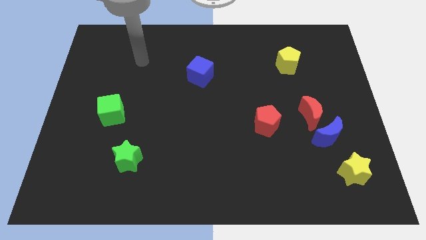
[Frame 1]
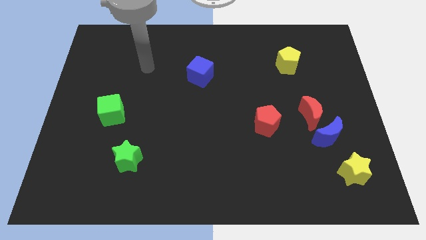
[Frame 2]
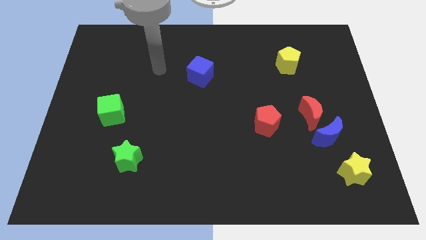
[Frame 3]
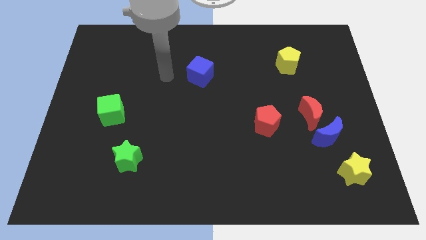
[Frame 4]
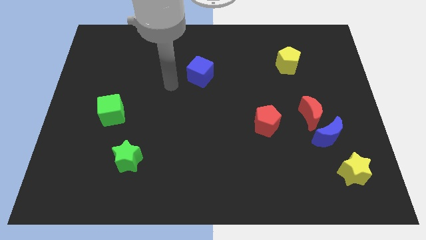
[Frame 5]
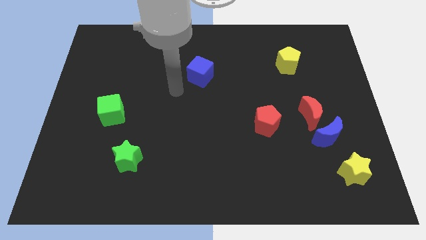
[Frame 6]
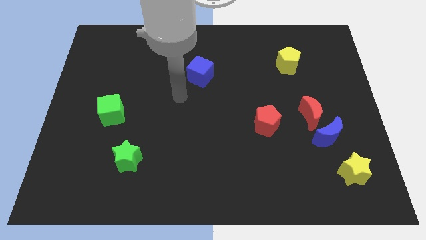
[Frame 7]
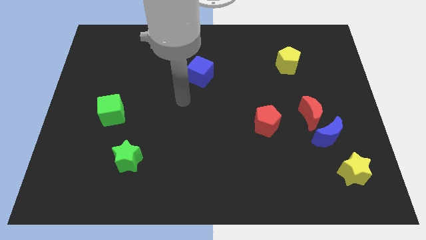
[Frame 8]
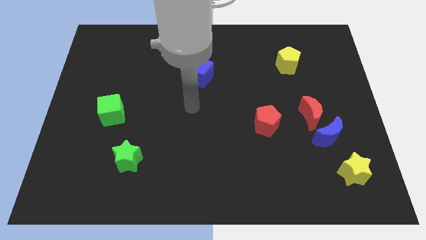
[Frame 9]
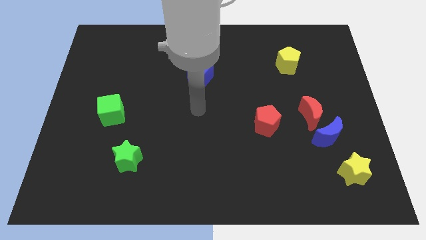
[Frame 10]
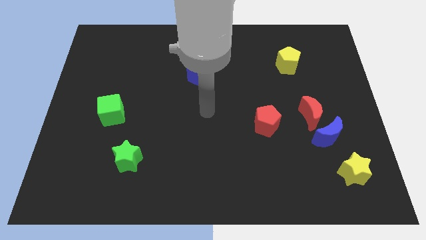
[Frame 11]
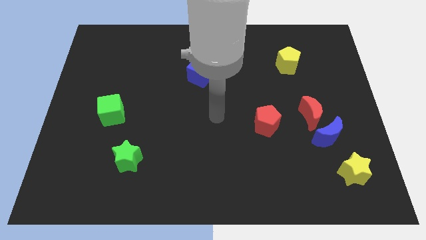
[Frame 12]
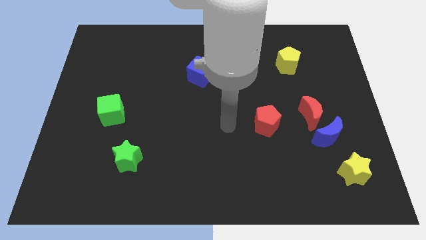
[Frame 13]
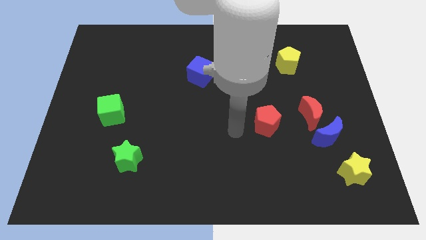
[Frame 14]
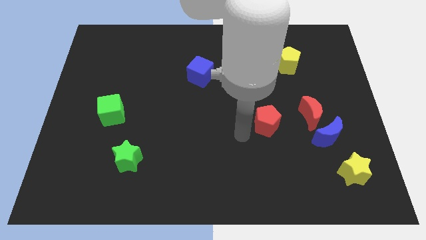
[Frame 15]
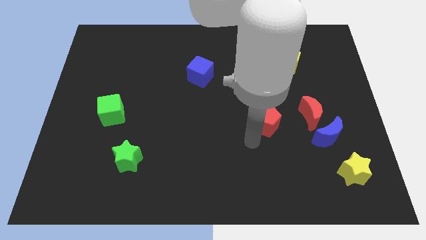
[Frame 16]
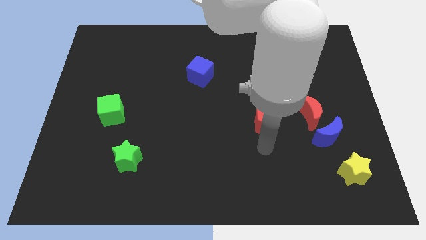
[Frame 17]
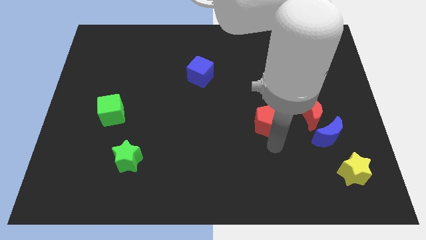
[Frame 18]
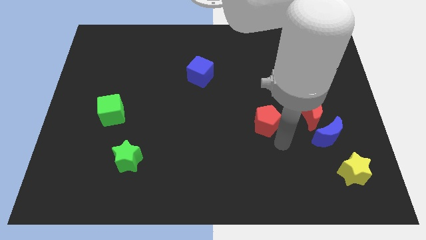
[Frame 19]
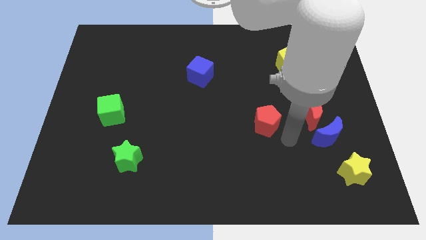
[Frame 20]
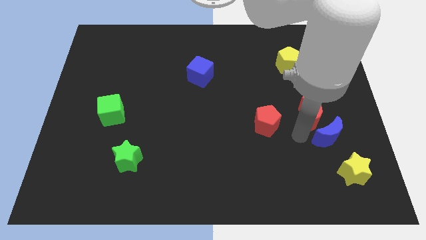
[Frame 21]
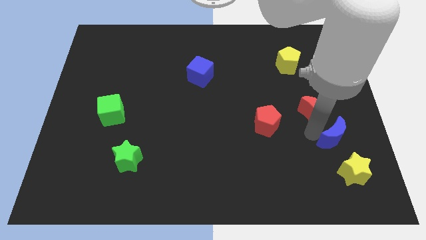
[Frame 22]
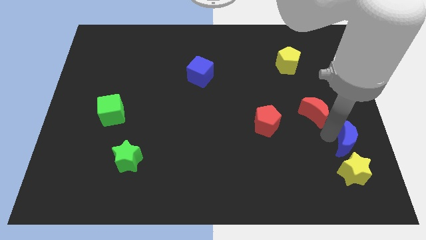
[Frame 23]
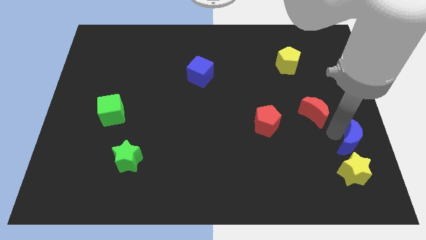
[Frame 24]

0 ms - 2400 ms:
separate the red moon from the blue moon

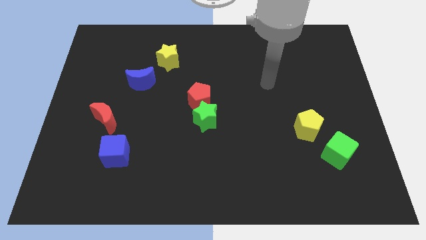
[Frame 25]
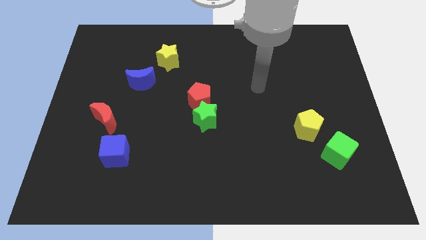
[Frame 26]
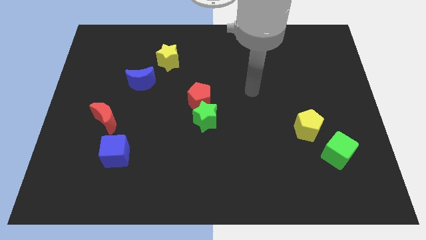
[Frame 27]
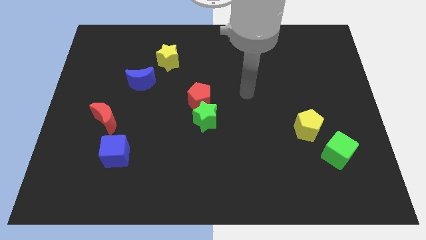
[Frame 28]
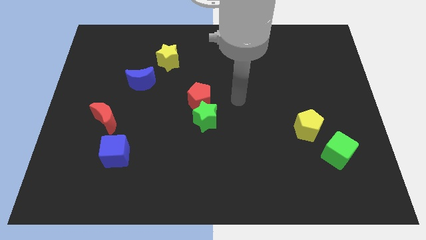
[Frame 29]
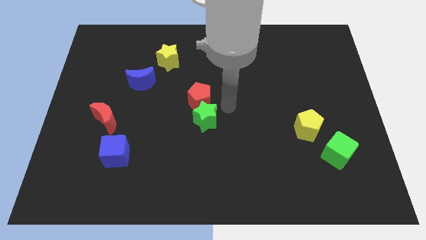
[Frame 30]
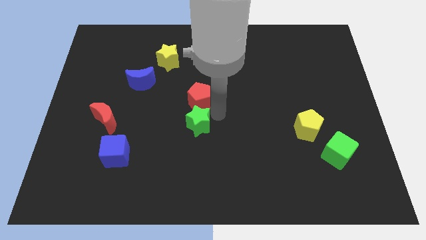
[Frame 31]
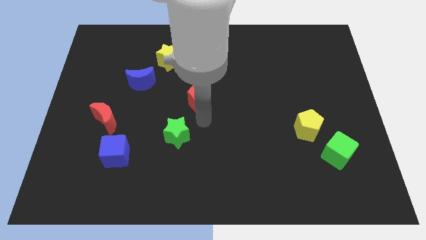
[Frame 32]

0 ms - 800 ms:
move the red pentagon away from the green star

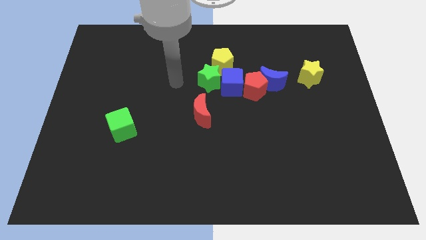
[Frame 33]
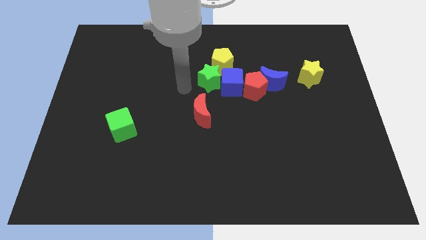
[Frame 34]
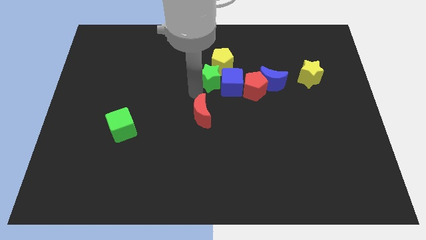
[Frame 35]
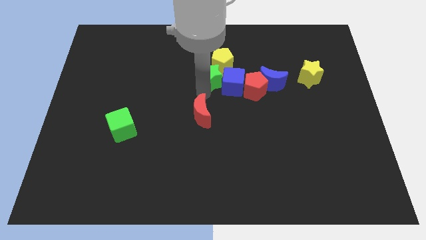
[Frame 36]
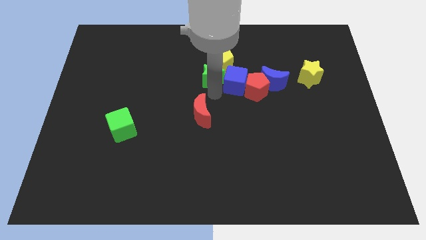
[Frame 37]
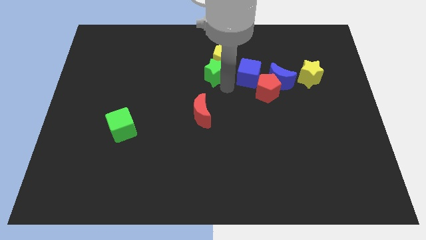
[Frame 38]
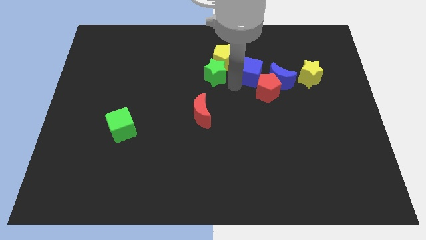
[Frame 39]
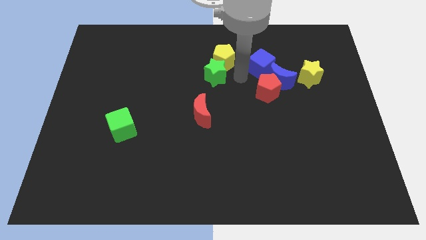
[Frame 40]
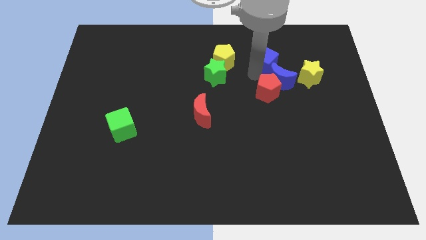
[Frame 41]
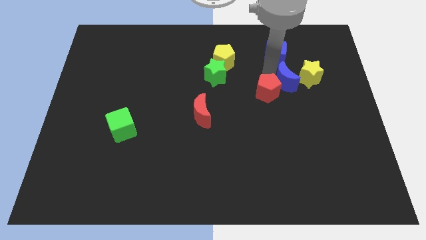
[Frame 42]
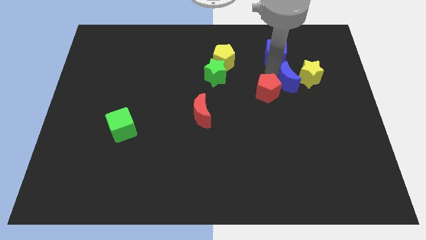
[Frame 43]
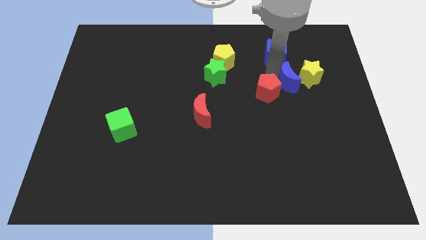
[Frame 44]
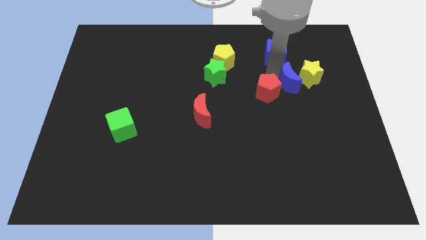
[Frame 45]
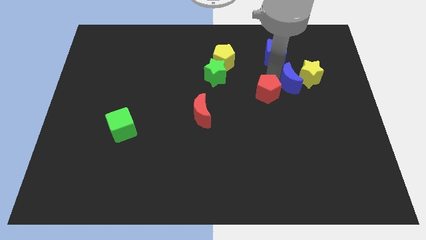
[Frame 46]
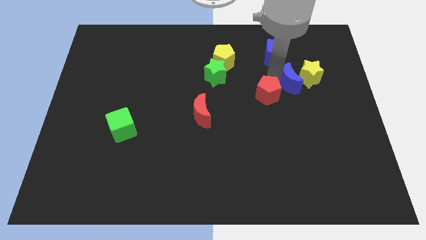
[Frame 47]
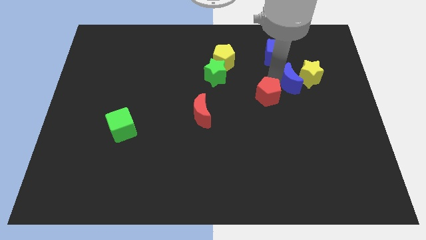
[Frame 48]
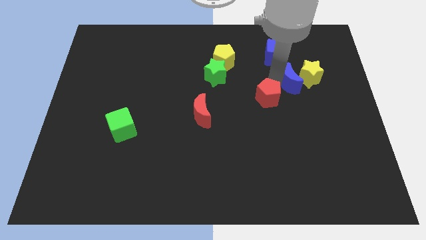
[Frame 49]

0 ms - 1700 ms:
pull the red pentagon apart from the blue moon and blue cube

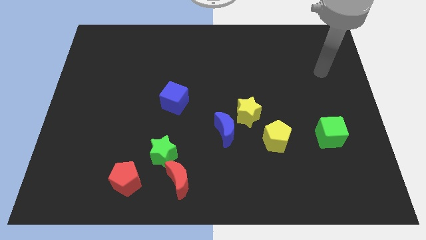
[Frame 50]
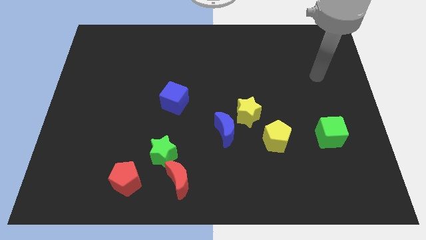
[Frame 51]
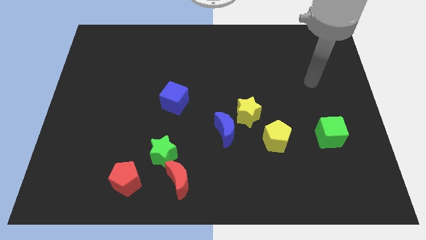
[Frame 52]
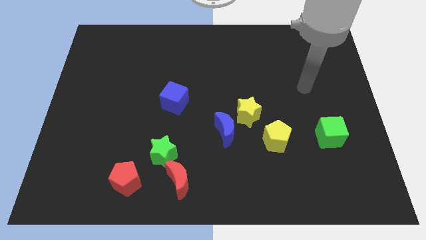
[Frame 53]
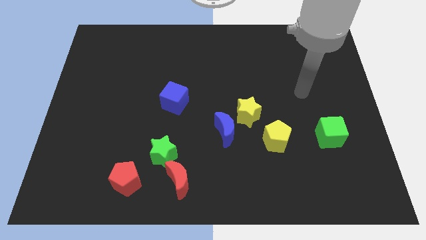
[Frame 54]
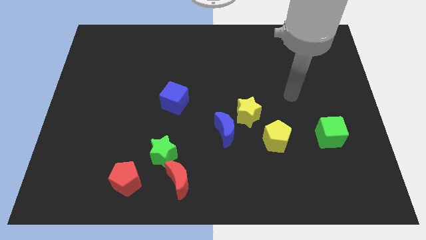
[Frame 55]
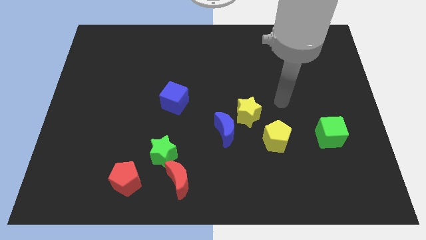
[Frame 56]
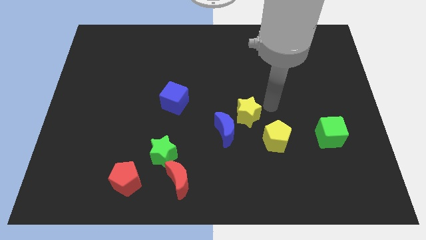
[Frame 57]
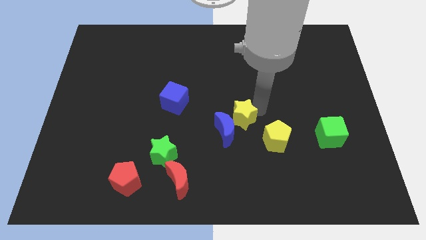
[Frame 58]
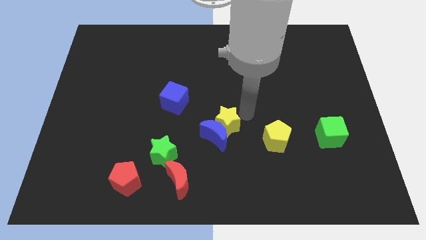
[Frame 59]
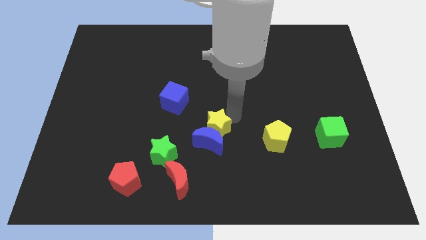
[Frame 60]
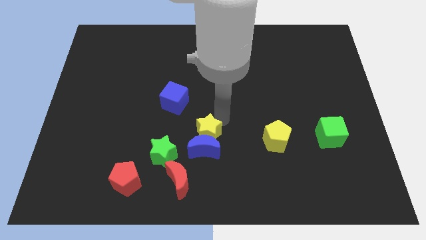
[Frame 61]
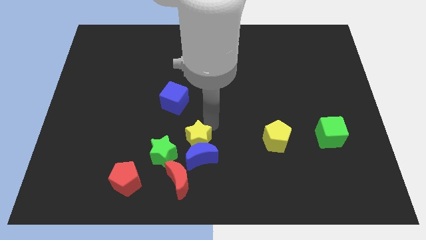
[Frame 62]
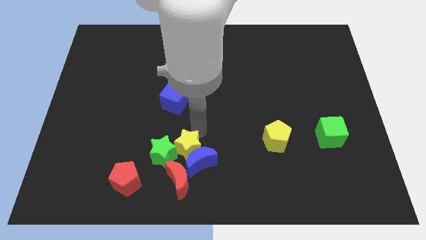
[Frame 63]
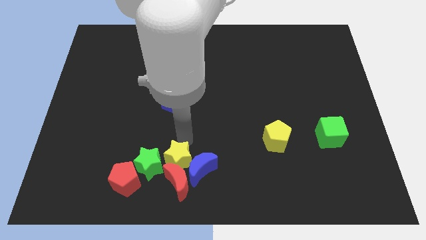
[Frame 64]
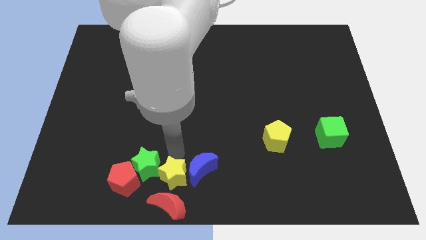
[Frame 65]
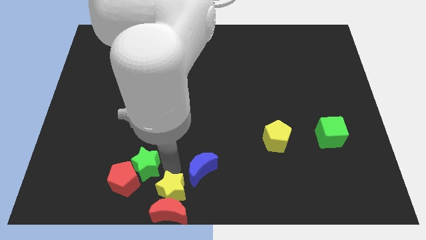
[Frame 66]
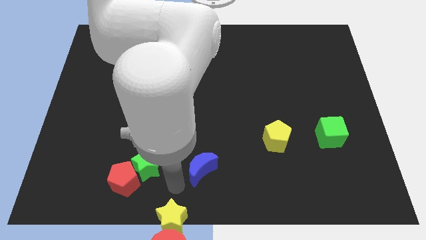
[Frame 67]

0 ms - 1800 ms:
separate the blue moon from the yellow star

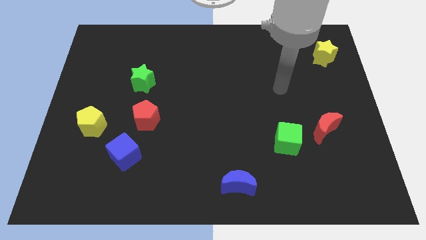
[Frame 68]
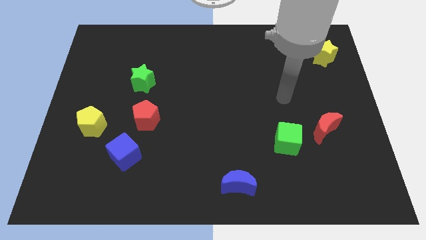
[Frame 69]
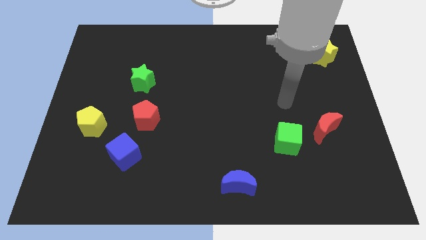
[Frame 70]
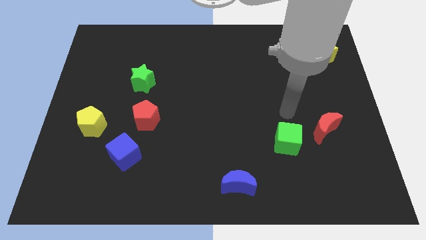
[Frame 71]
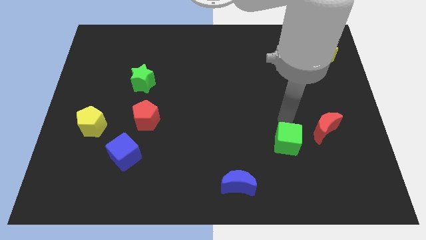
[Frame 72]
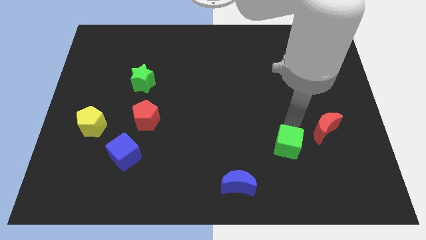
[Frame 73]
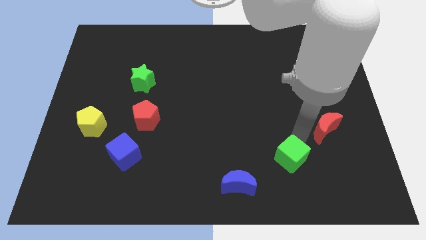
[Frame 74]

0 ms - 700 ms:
move the red moon away from the green cube

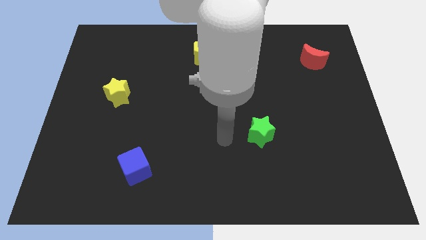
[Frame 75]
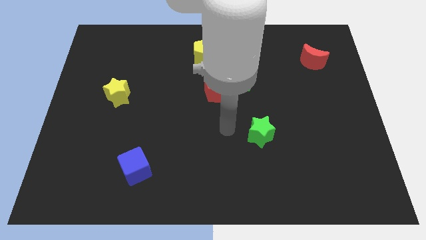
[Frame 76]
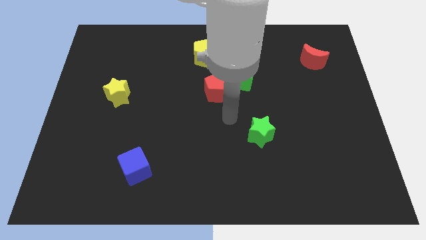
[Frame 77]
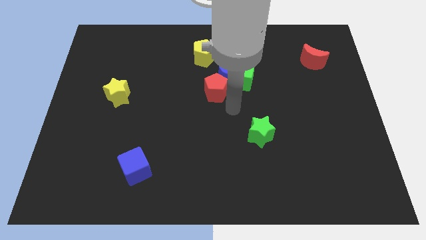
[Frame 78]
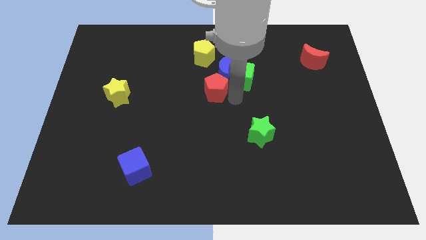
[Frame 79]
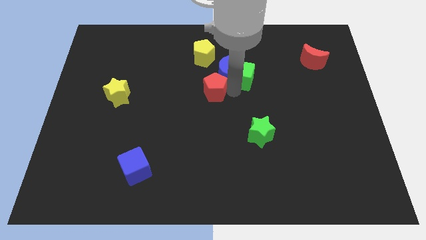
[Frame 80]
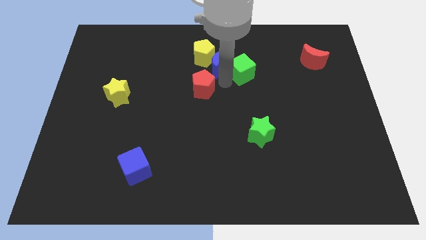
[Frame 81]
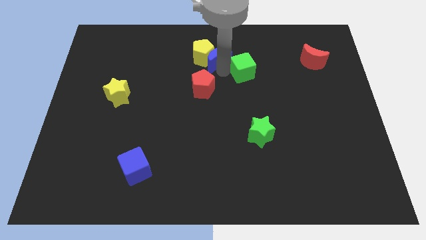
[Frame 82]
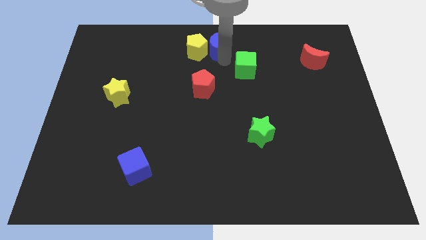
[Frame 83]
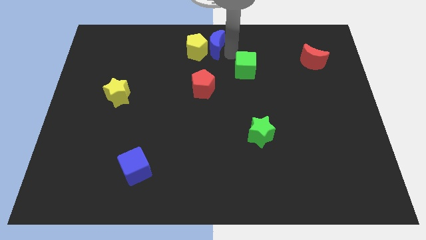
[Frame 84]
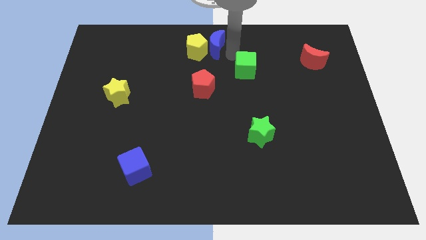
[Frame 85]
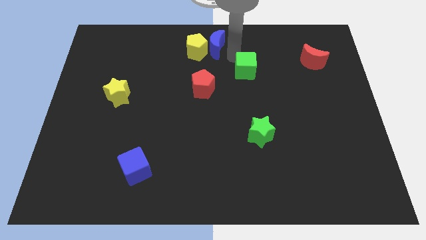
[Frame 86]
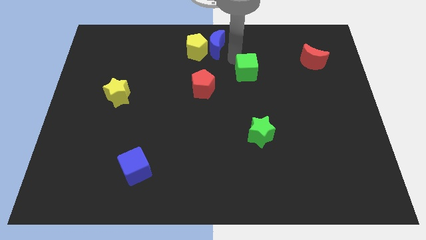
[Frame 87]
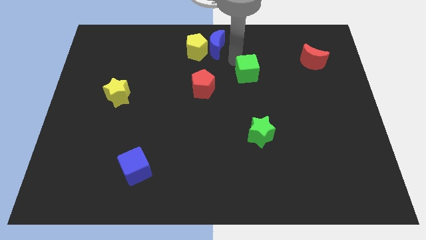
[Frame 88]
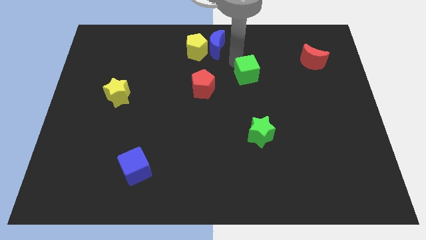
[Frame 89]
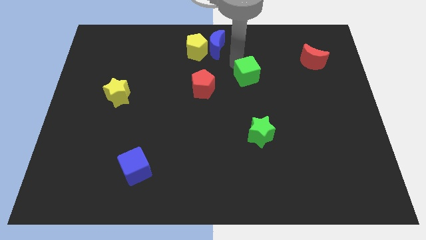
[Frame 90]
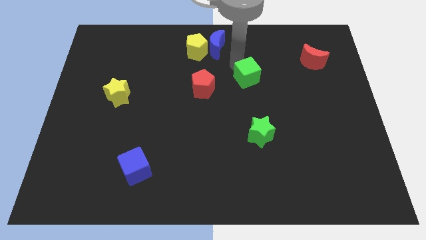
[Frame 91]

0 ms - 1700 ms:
pull the green cube apart from the blue moon and red pentagon

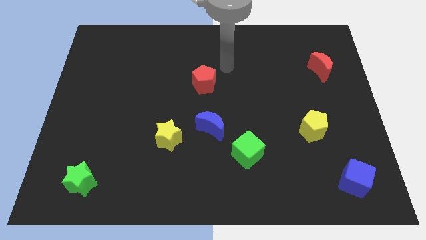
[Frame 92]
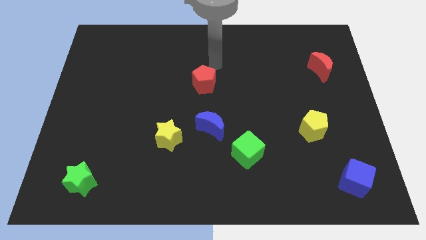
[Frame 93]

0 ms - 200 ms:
pull the yellow star apart from the blue moon

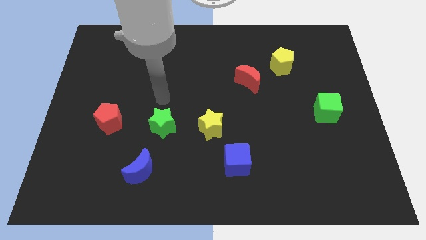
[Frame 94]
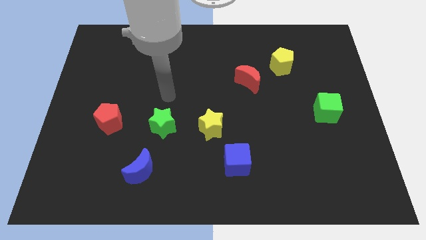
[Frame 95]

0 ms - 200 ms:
move the red moon away from the yellow pentagon
